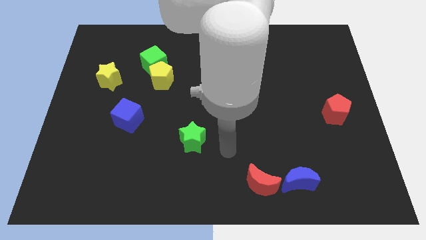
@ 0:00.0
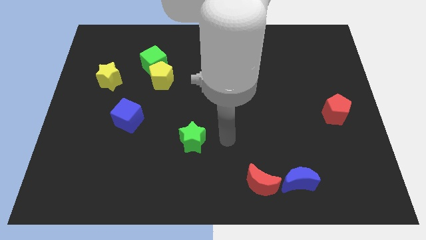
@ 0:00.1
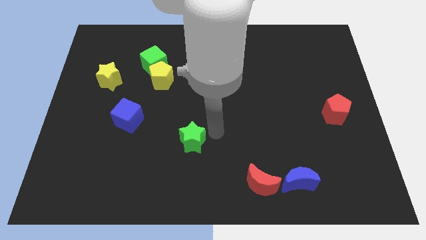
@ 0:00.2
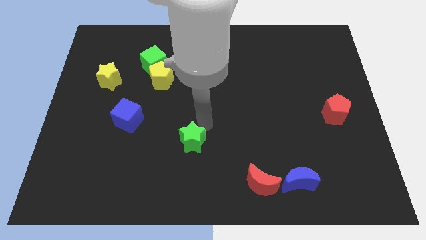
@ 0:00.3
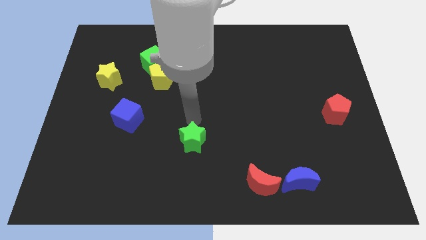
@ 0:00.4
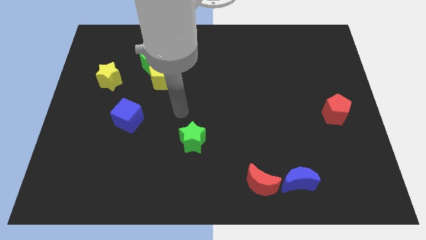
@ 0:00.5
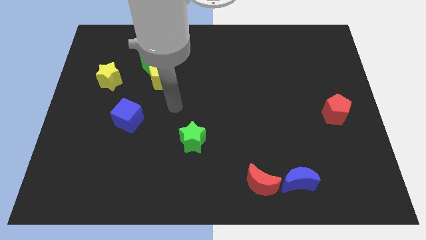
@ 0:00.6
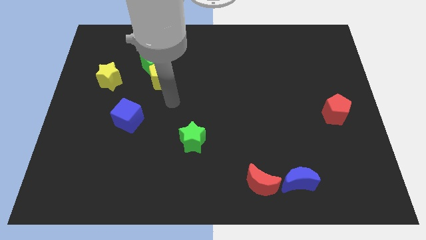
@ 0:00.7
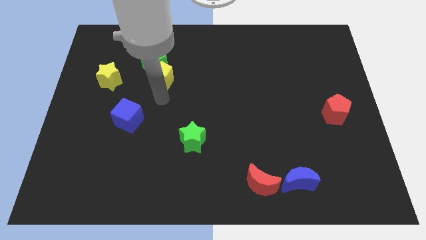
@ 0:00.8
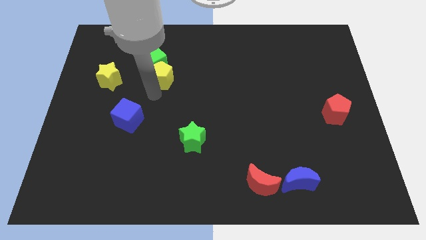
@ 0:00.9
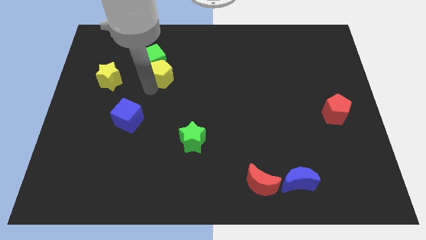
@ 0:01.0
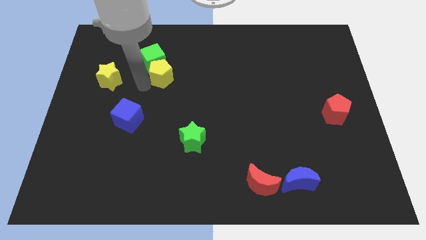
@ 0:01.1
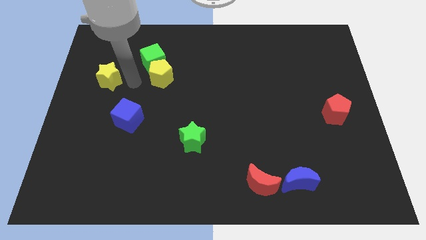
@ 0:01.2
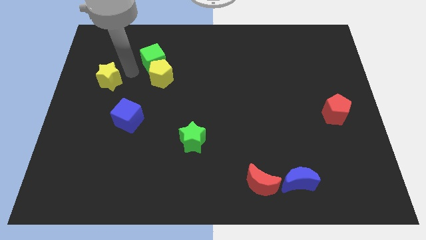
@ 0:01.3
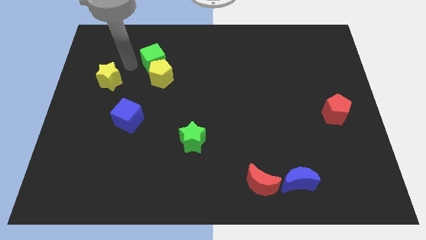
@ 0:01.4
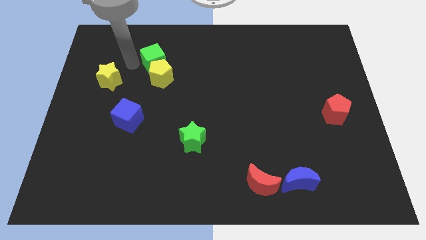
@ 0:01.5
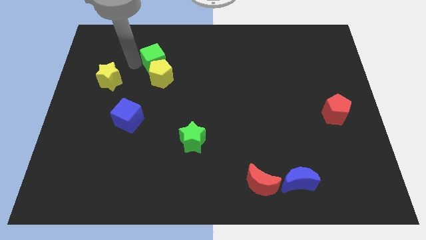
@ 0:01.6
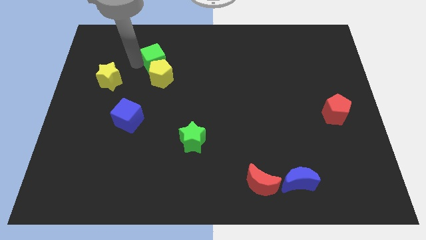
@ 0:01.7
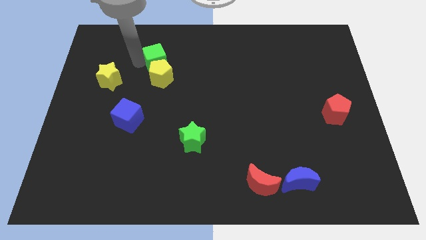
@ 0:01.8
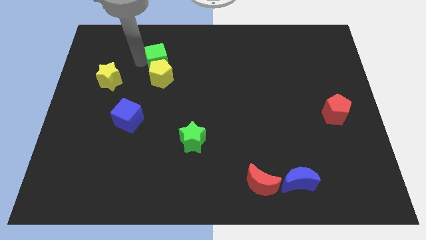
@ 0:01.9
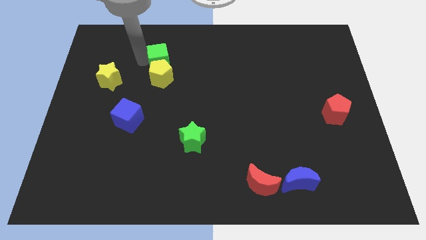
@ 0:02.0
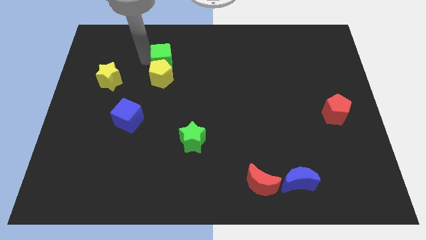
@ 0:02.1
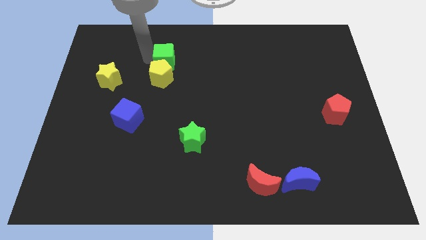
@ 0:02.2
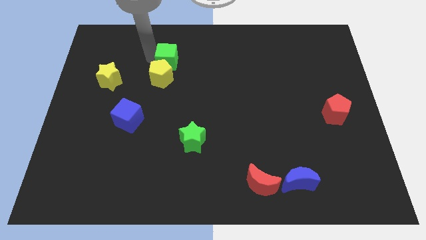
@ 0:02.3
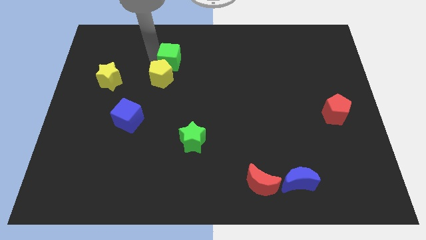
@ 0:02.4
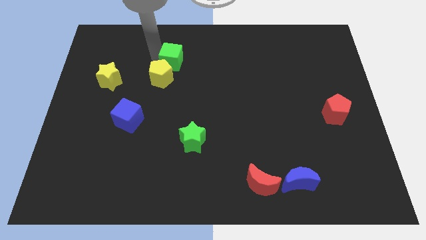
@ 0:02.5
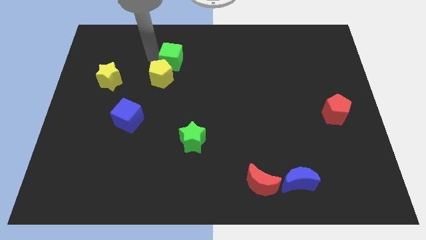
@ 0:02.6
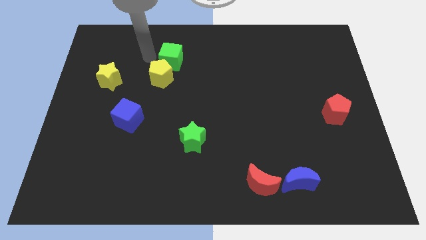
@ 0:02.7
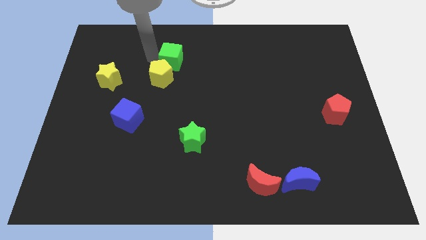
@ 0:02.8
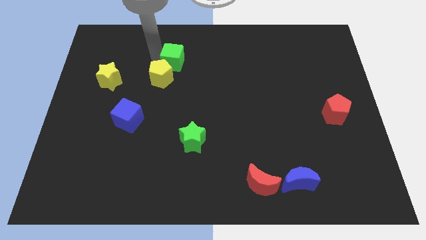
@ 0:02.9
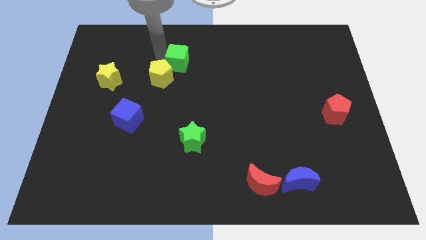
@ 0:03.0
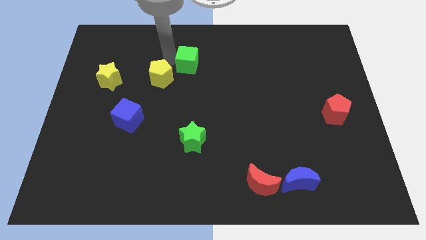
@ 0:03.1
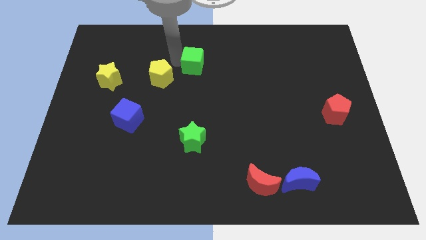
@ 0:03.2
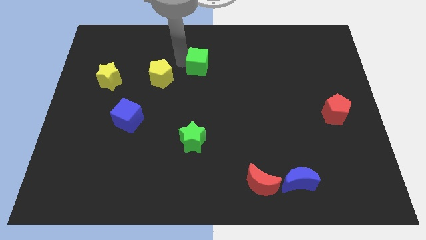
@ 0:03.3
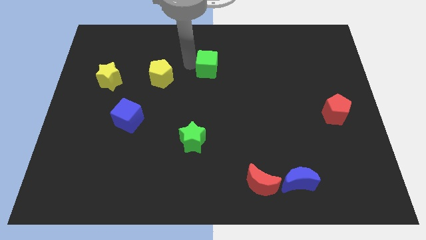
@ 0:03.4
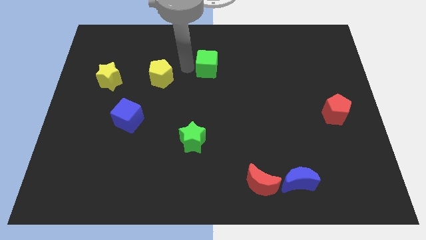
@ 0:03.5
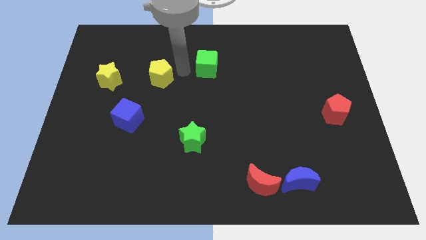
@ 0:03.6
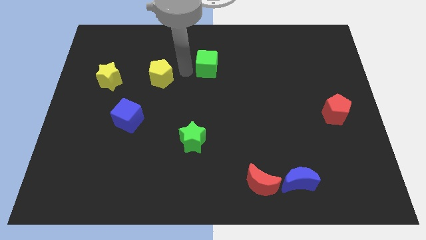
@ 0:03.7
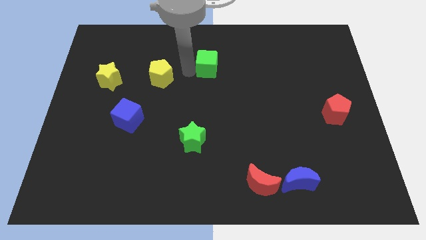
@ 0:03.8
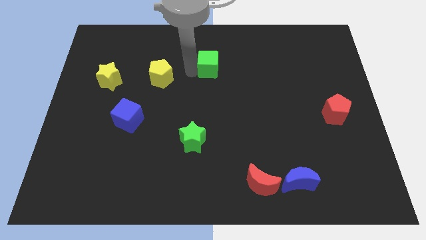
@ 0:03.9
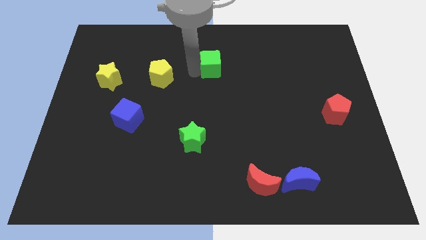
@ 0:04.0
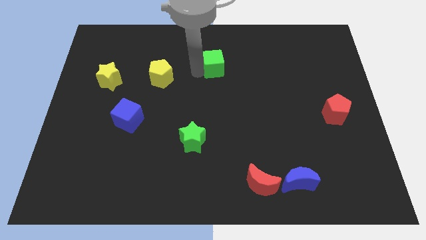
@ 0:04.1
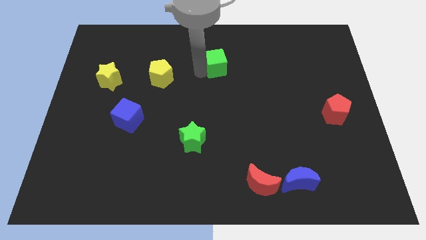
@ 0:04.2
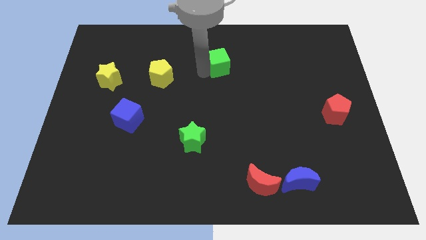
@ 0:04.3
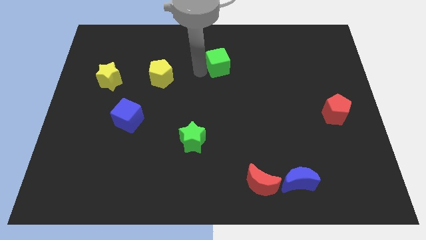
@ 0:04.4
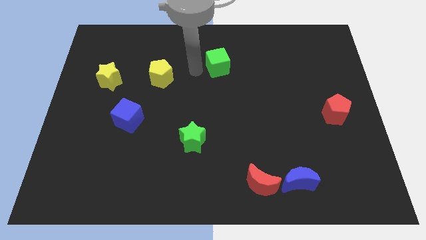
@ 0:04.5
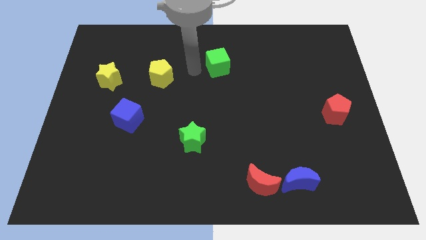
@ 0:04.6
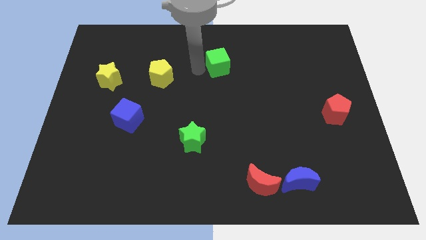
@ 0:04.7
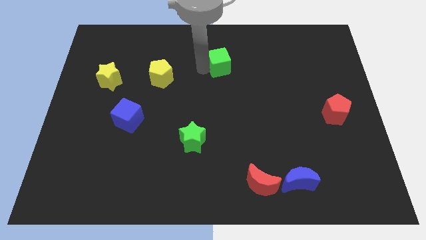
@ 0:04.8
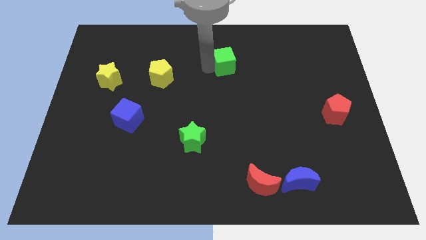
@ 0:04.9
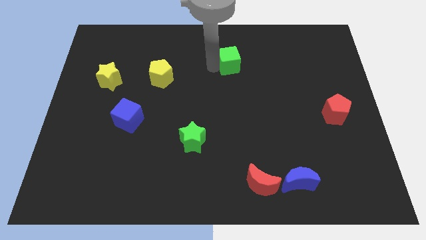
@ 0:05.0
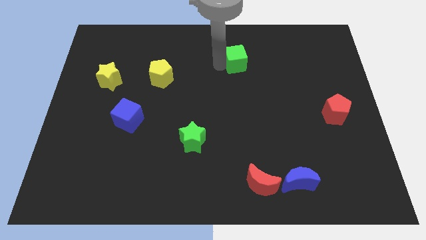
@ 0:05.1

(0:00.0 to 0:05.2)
push the green cube right

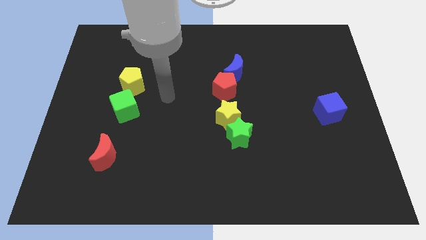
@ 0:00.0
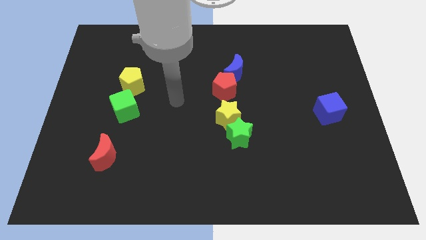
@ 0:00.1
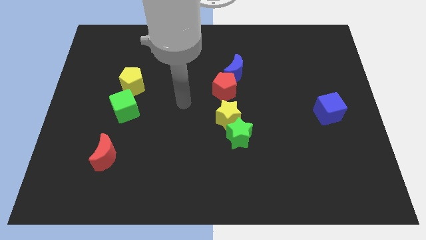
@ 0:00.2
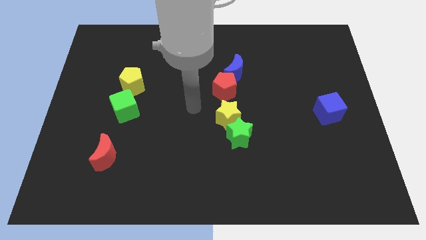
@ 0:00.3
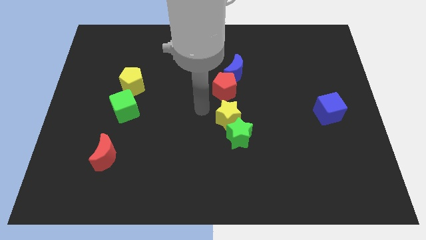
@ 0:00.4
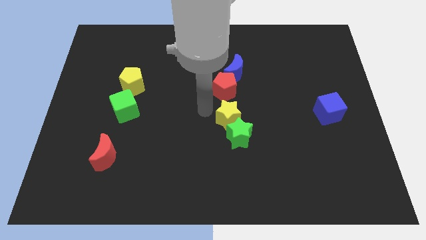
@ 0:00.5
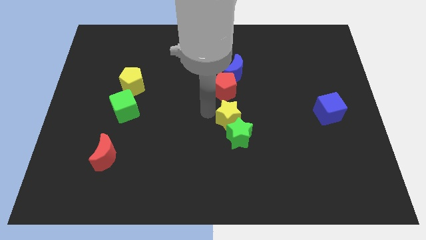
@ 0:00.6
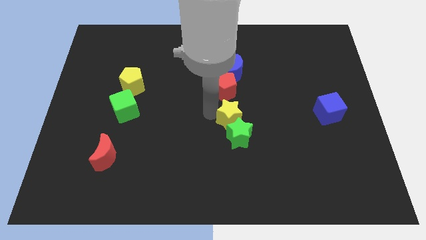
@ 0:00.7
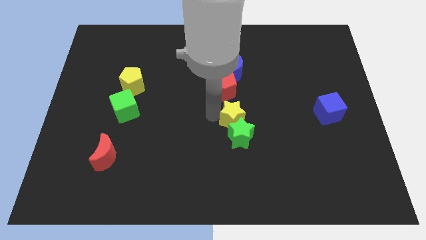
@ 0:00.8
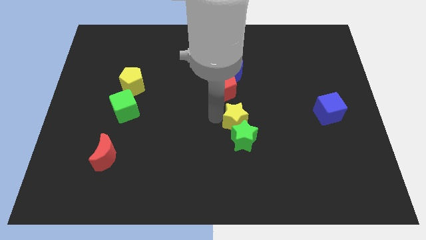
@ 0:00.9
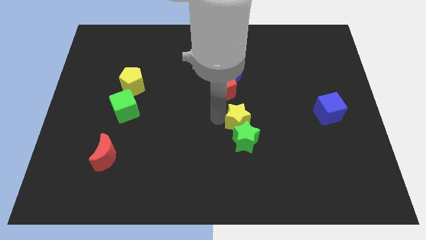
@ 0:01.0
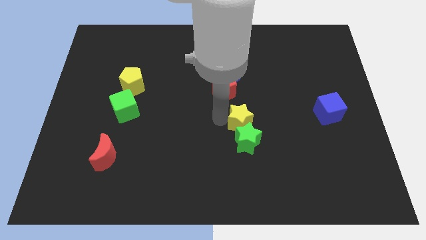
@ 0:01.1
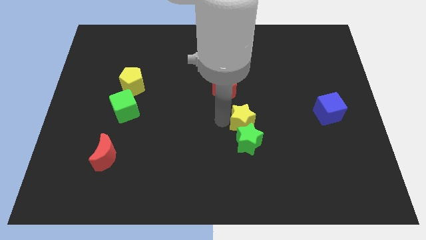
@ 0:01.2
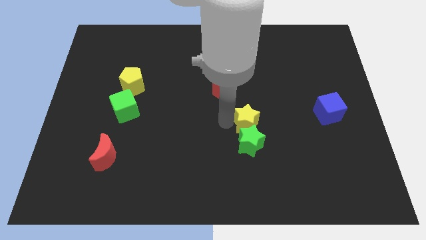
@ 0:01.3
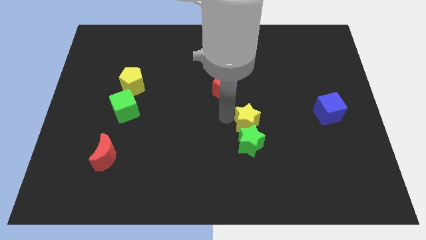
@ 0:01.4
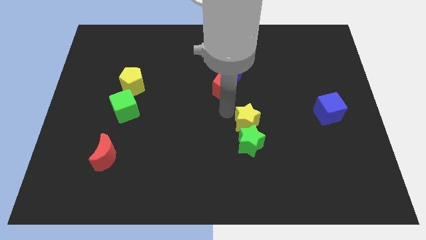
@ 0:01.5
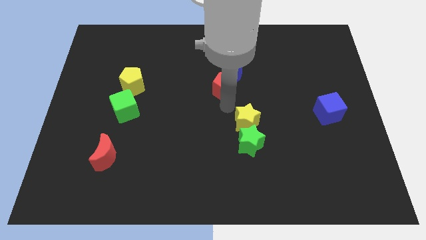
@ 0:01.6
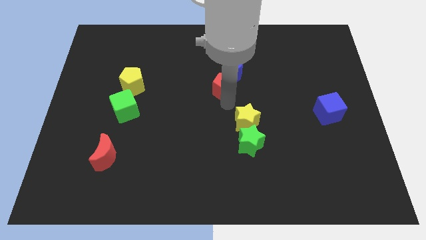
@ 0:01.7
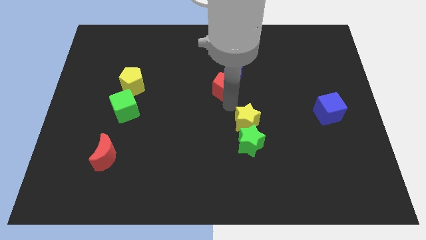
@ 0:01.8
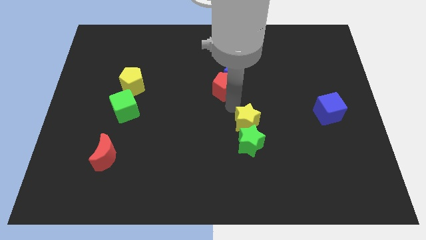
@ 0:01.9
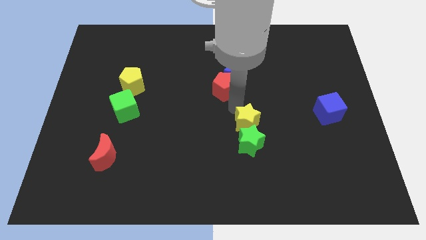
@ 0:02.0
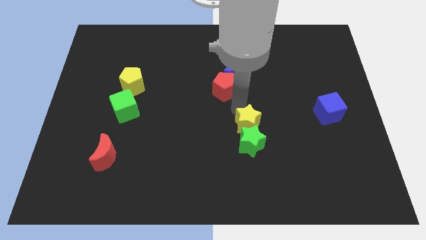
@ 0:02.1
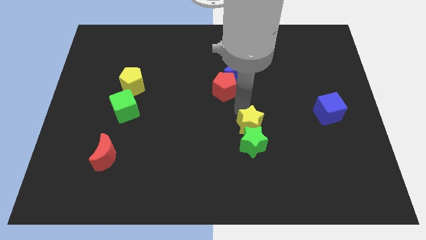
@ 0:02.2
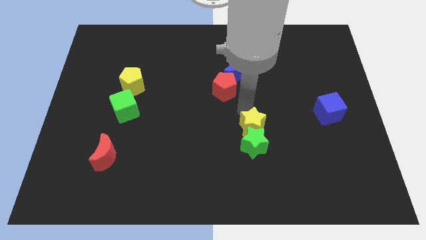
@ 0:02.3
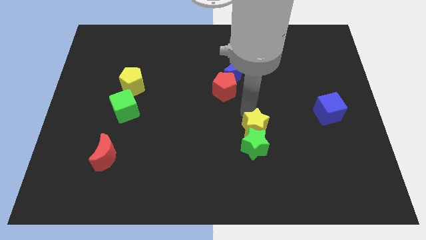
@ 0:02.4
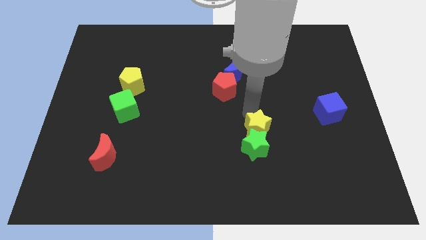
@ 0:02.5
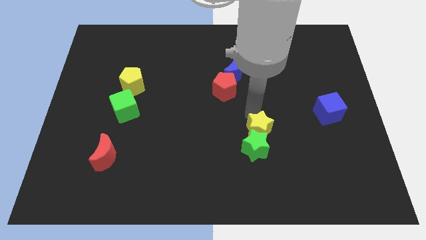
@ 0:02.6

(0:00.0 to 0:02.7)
move the yellow star down and right diagonally slightly

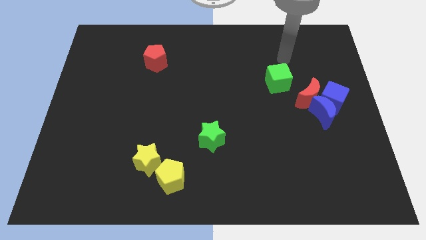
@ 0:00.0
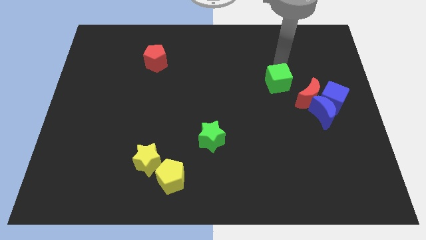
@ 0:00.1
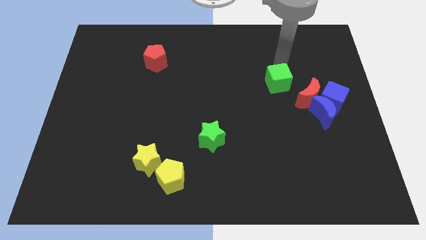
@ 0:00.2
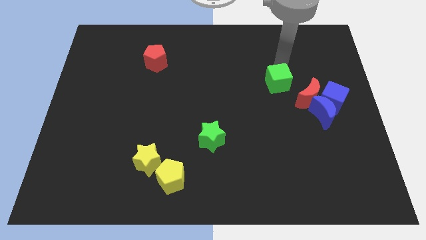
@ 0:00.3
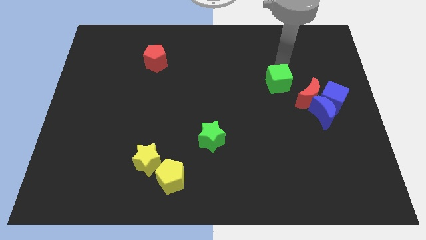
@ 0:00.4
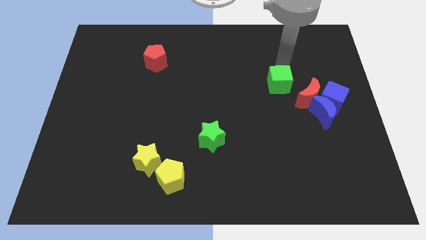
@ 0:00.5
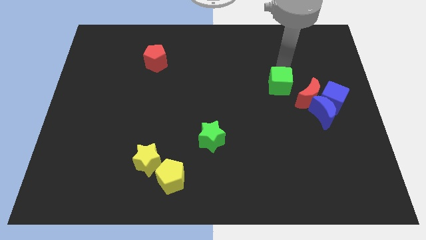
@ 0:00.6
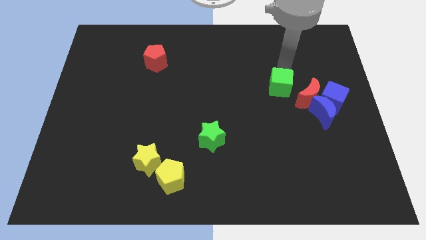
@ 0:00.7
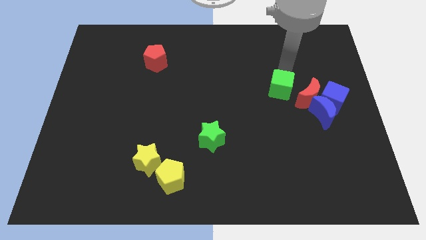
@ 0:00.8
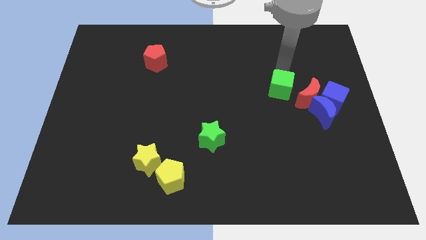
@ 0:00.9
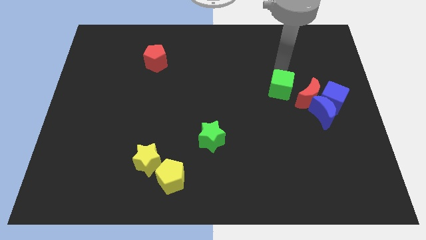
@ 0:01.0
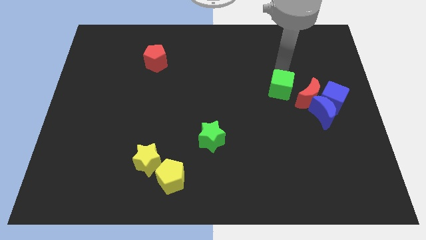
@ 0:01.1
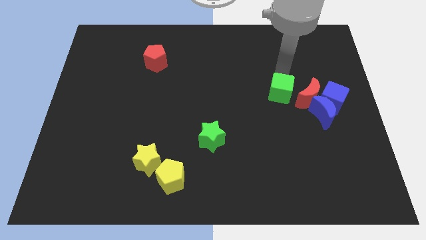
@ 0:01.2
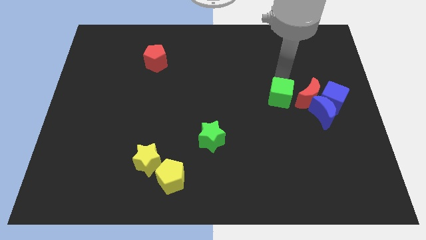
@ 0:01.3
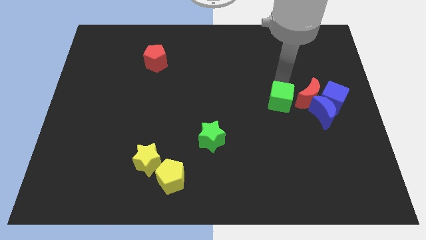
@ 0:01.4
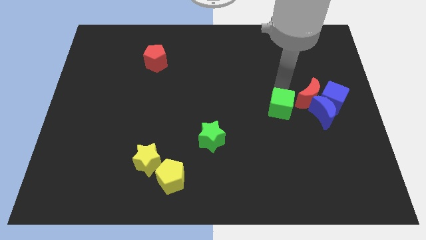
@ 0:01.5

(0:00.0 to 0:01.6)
push the green cube down somewhat
